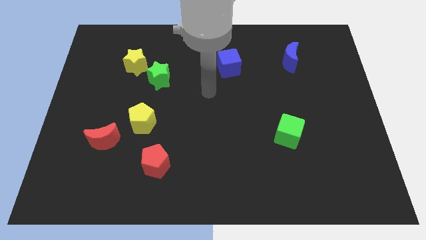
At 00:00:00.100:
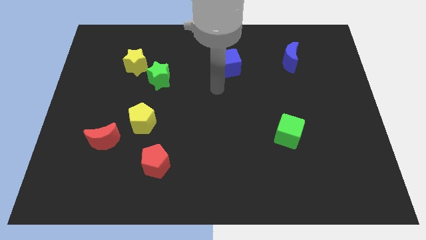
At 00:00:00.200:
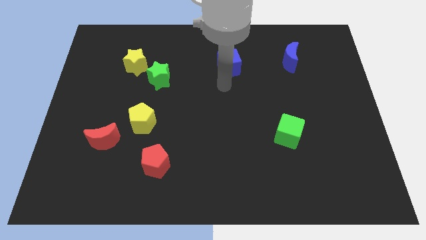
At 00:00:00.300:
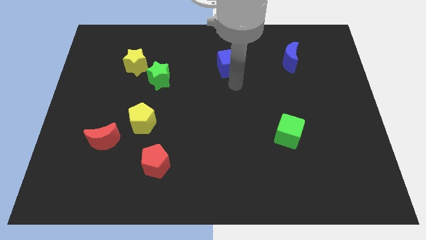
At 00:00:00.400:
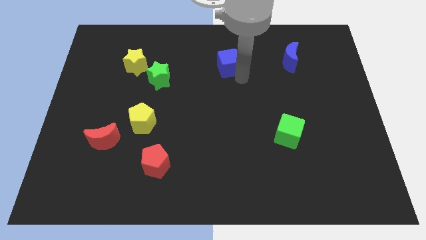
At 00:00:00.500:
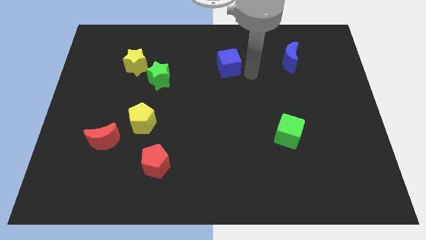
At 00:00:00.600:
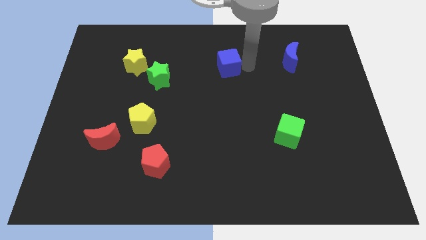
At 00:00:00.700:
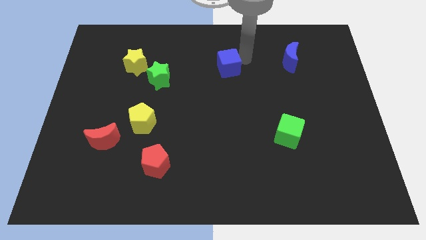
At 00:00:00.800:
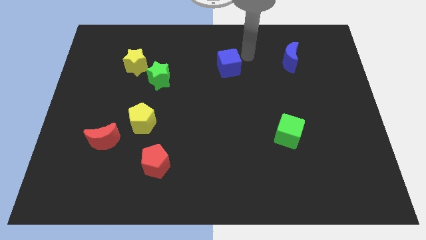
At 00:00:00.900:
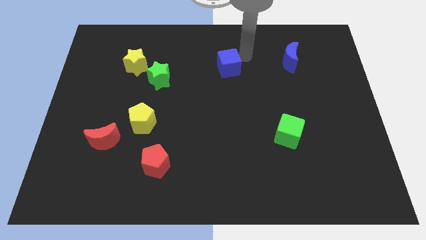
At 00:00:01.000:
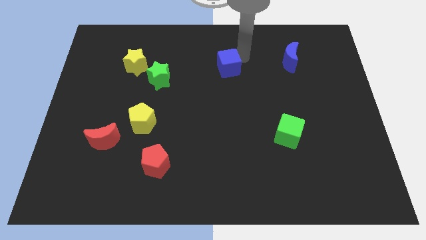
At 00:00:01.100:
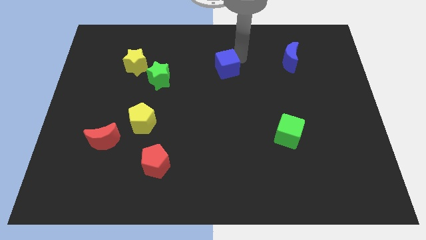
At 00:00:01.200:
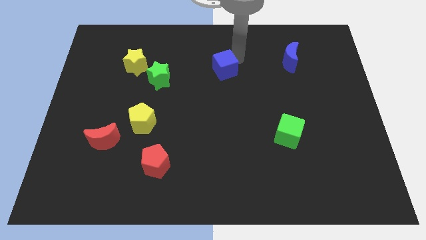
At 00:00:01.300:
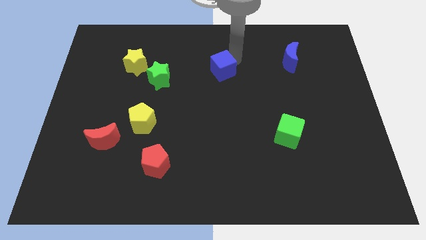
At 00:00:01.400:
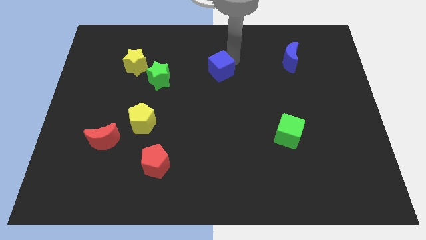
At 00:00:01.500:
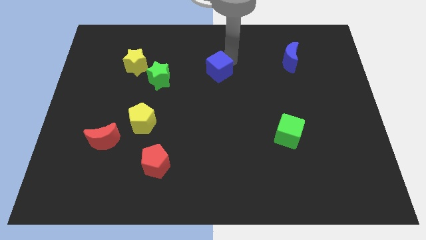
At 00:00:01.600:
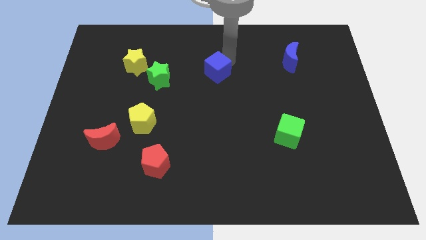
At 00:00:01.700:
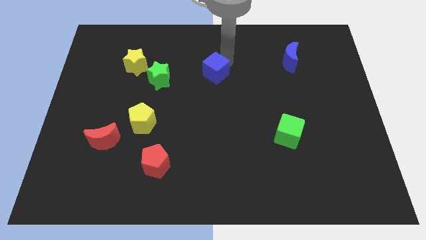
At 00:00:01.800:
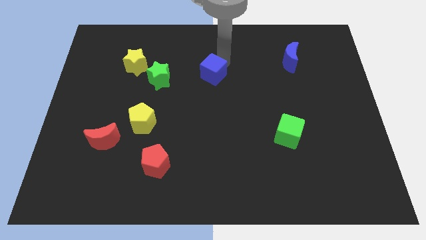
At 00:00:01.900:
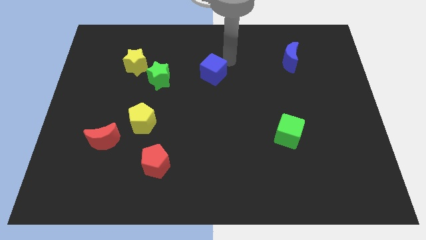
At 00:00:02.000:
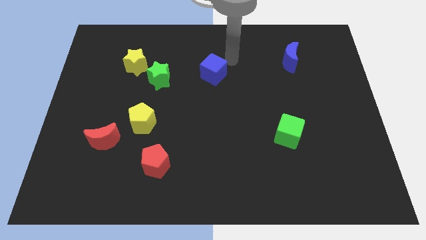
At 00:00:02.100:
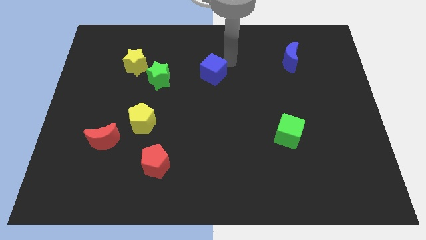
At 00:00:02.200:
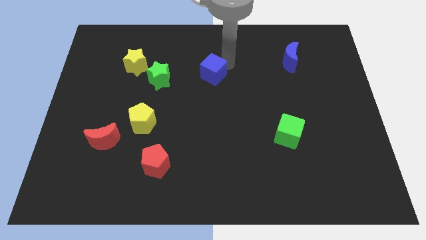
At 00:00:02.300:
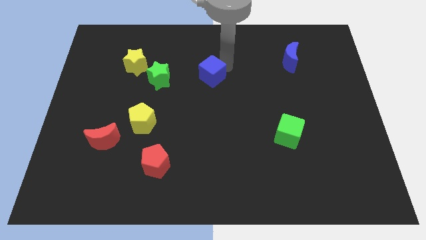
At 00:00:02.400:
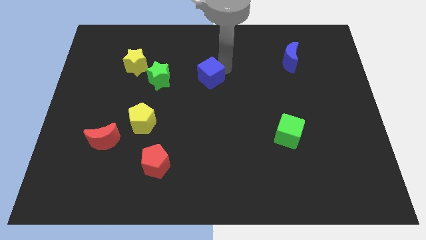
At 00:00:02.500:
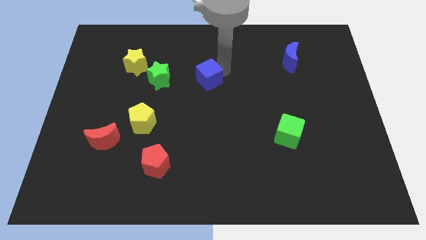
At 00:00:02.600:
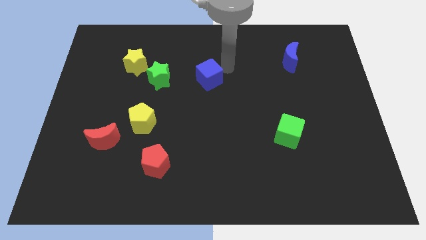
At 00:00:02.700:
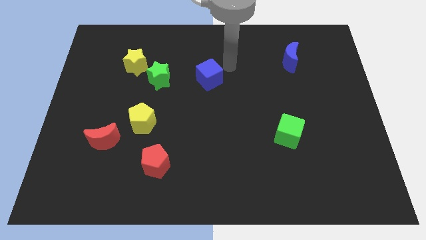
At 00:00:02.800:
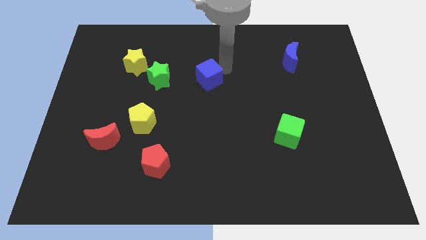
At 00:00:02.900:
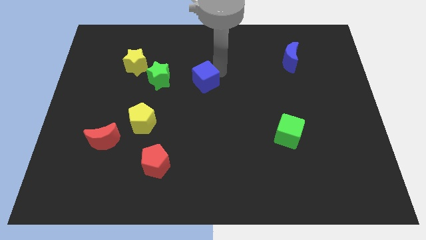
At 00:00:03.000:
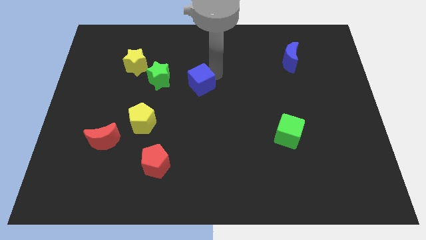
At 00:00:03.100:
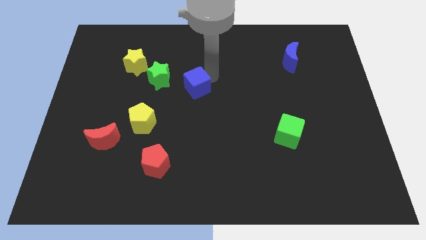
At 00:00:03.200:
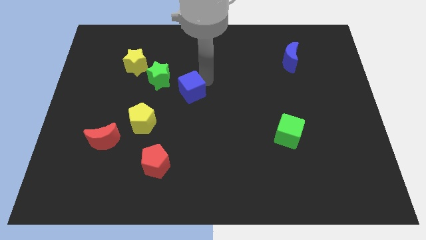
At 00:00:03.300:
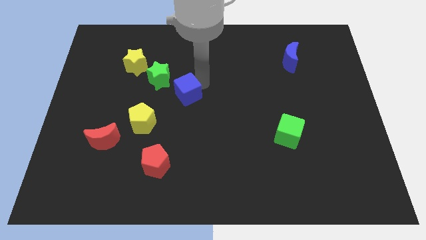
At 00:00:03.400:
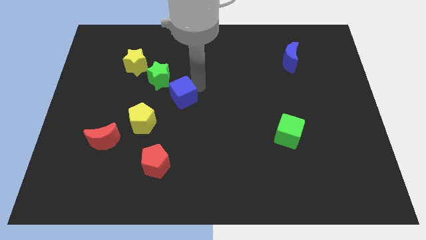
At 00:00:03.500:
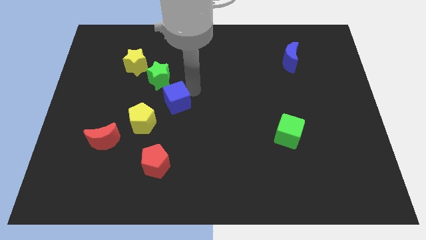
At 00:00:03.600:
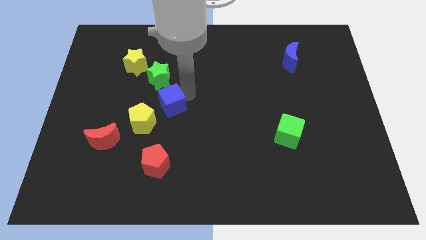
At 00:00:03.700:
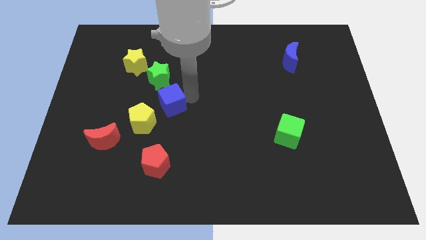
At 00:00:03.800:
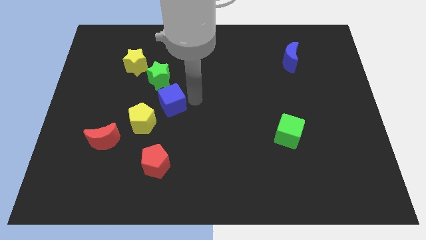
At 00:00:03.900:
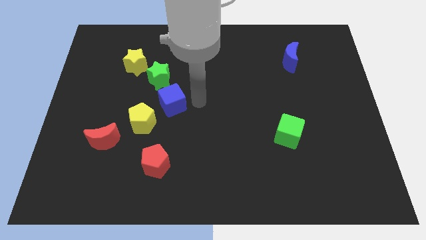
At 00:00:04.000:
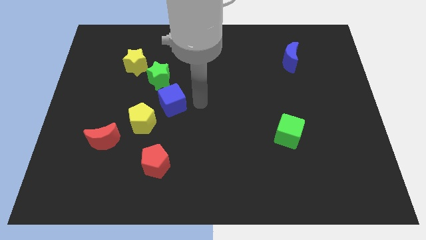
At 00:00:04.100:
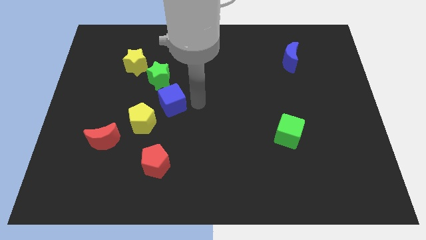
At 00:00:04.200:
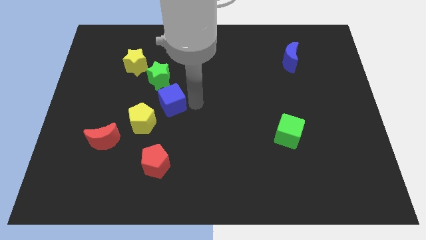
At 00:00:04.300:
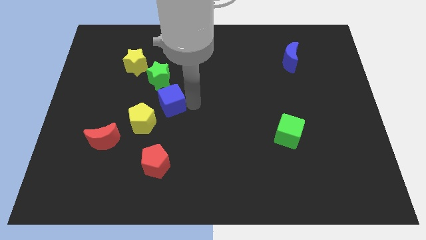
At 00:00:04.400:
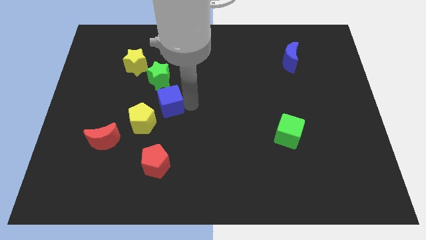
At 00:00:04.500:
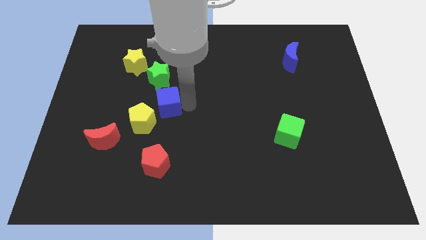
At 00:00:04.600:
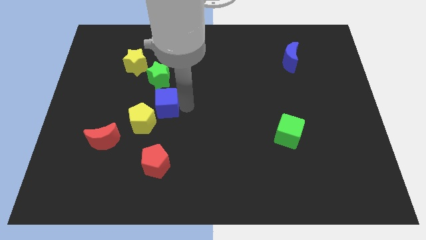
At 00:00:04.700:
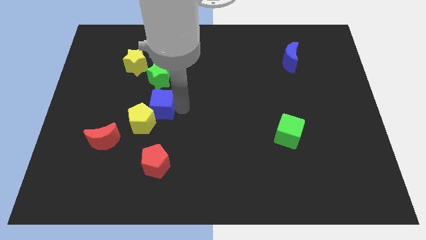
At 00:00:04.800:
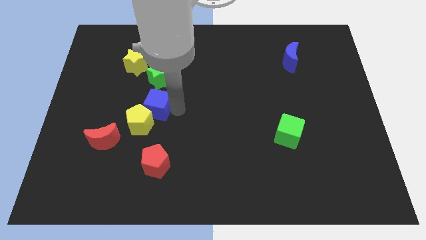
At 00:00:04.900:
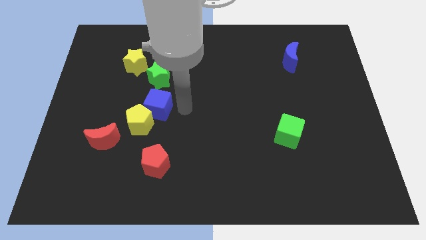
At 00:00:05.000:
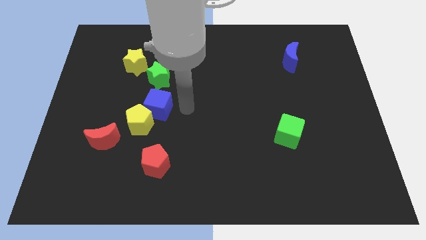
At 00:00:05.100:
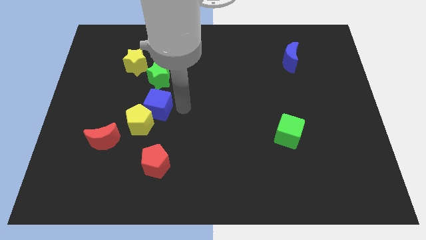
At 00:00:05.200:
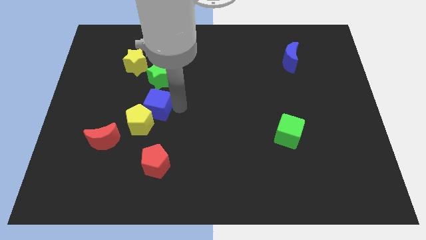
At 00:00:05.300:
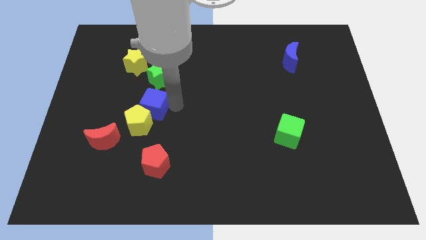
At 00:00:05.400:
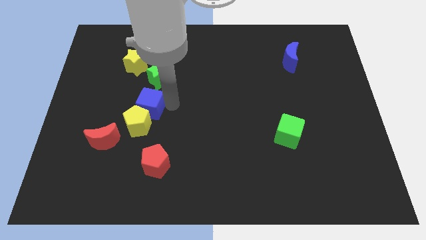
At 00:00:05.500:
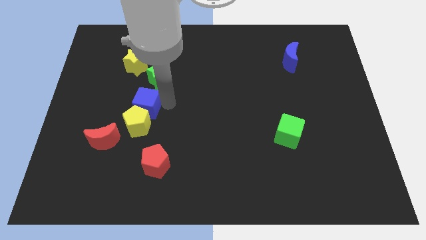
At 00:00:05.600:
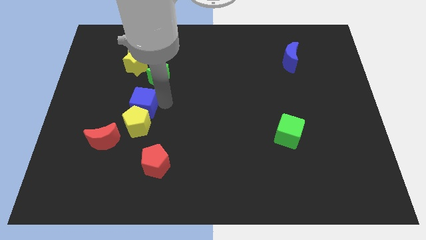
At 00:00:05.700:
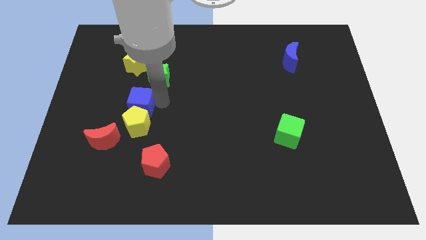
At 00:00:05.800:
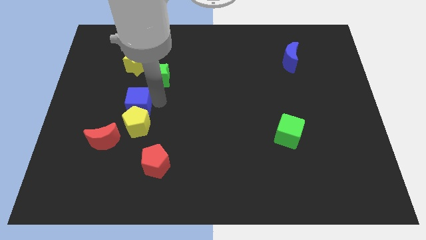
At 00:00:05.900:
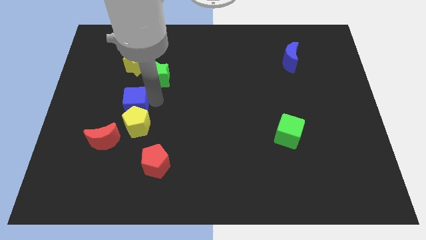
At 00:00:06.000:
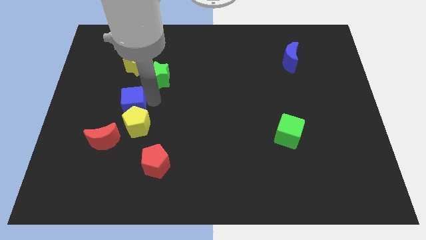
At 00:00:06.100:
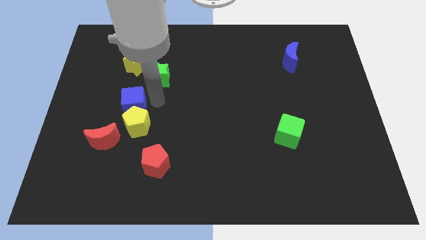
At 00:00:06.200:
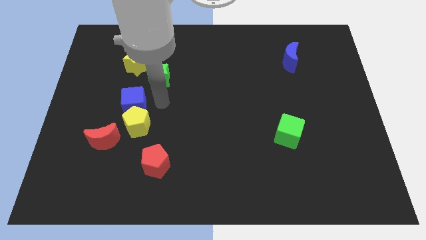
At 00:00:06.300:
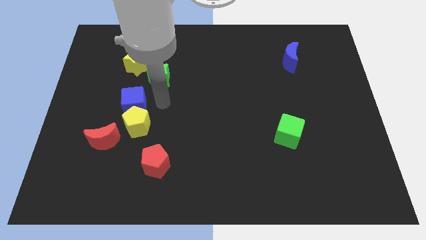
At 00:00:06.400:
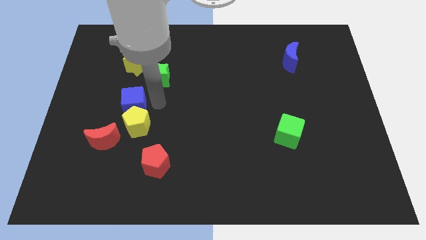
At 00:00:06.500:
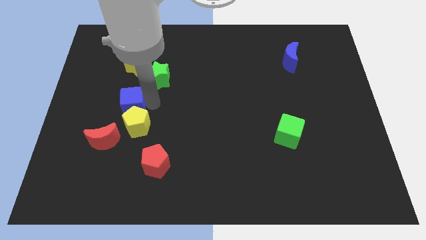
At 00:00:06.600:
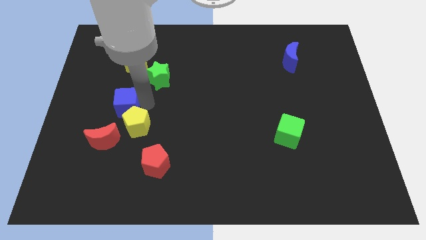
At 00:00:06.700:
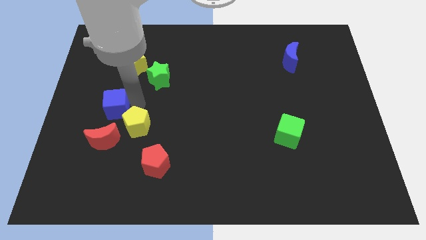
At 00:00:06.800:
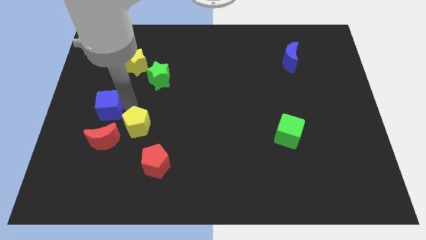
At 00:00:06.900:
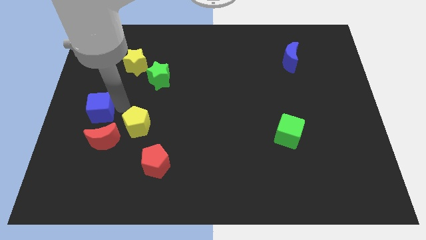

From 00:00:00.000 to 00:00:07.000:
move the blue cube to the left side of the board
